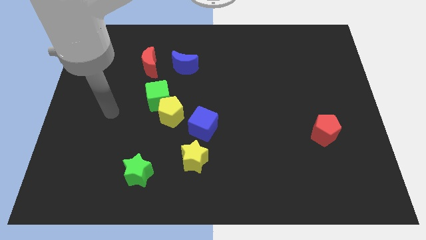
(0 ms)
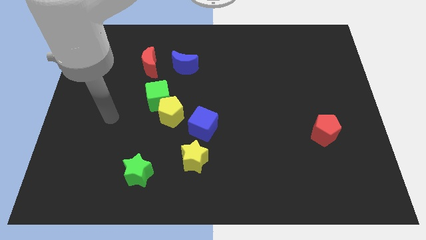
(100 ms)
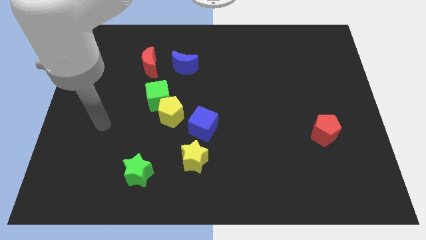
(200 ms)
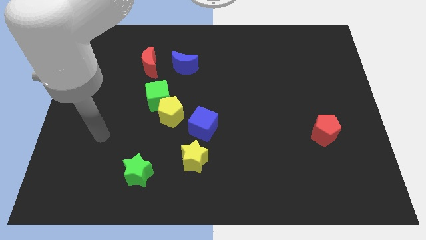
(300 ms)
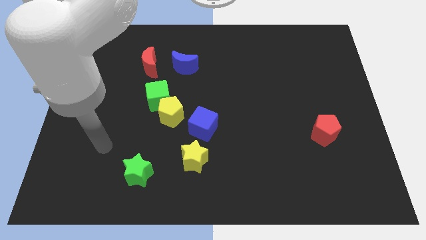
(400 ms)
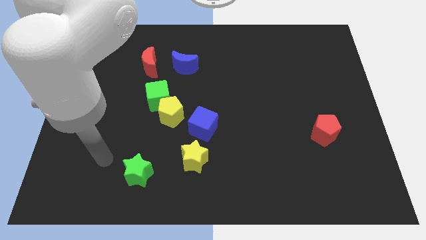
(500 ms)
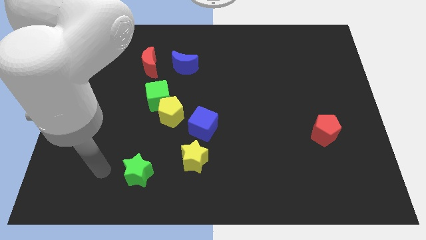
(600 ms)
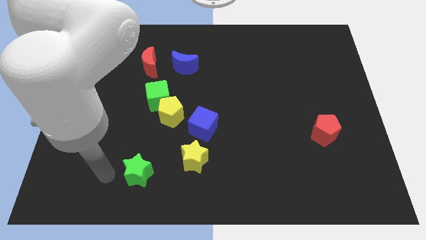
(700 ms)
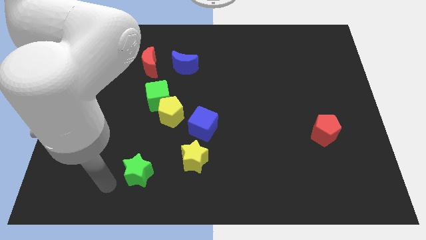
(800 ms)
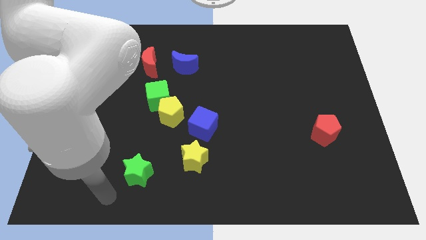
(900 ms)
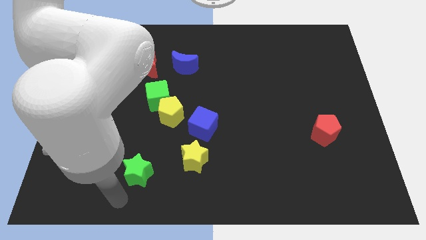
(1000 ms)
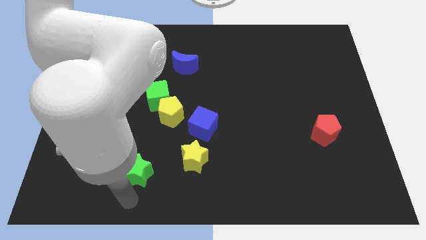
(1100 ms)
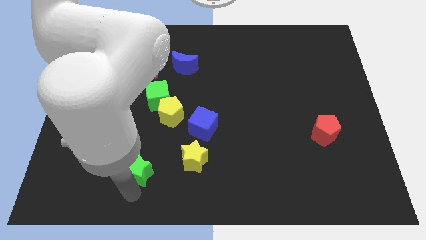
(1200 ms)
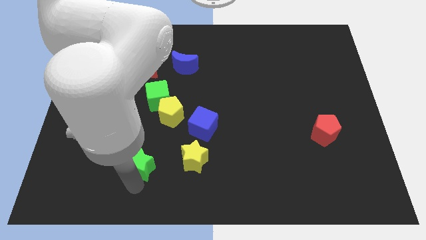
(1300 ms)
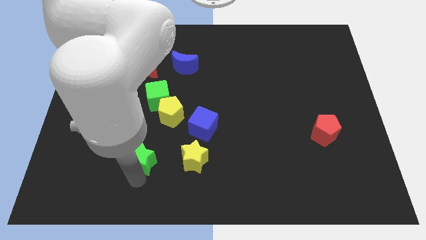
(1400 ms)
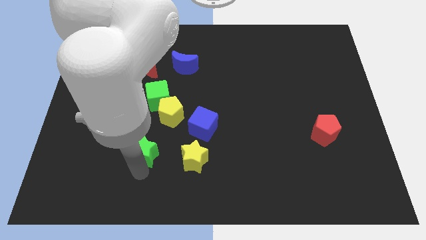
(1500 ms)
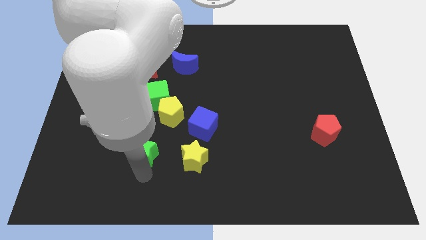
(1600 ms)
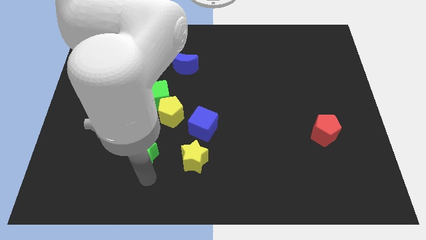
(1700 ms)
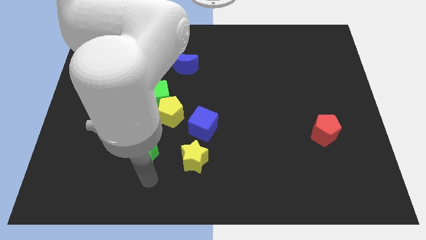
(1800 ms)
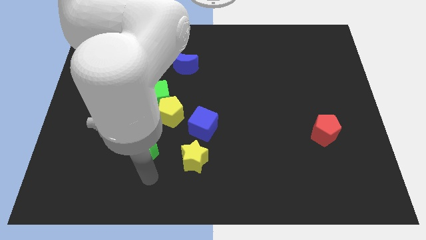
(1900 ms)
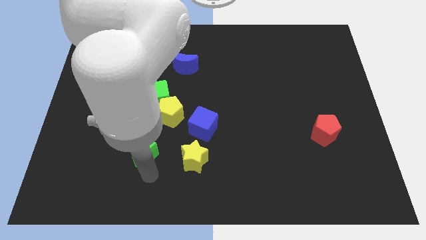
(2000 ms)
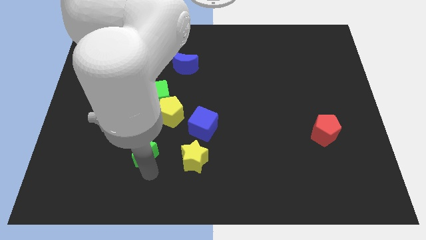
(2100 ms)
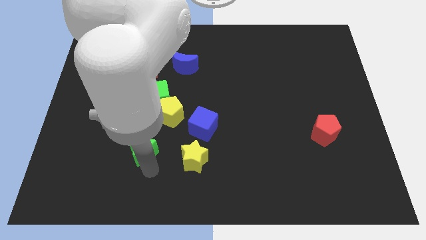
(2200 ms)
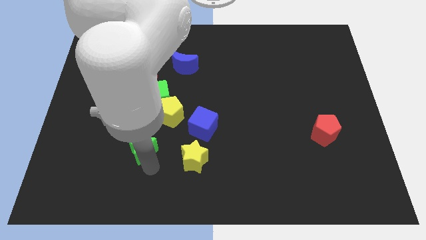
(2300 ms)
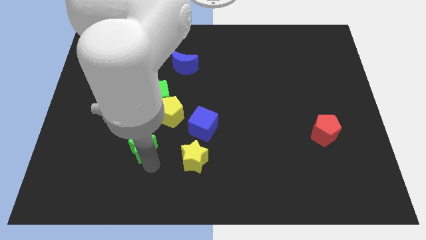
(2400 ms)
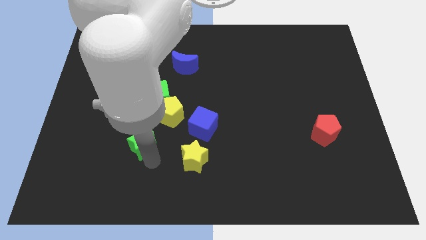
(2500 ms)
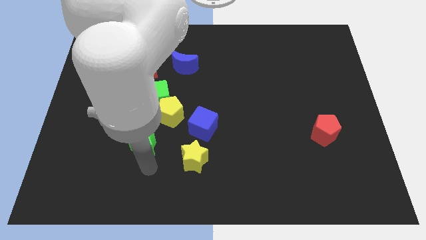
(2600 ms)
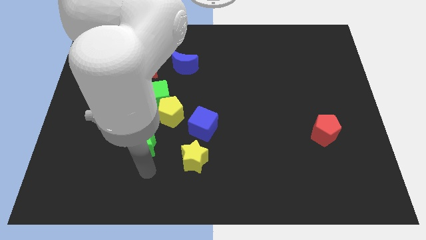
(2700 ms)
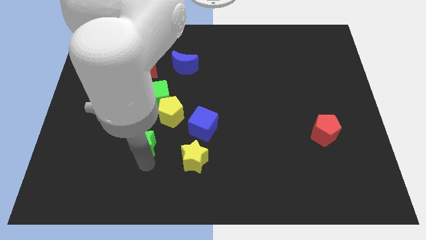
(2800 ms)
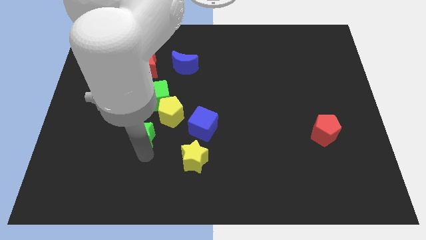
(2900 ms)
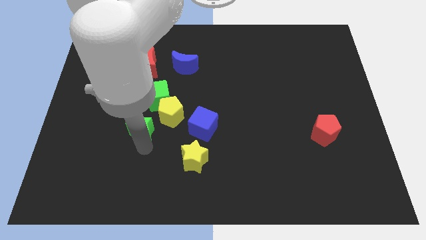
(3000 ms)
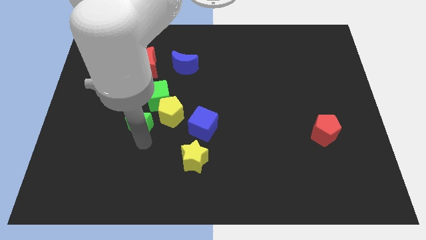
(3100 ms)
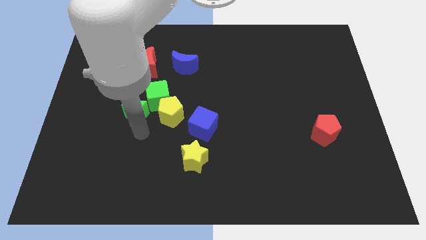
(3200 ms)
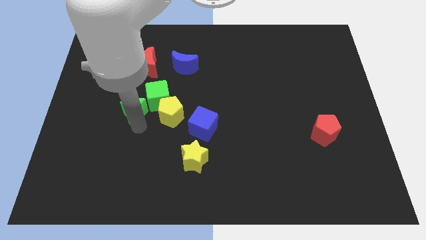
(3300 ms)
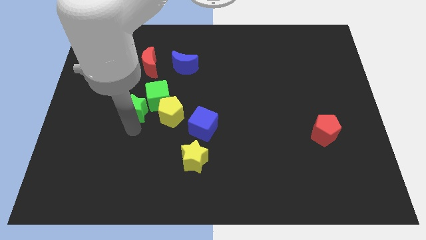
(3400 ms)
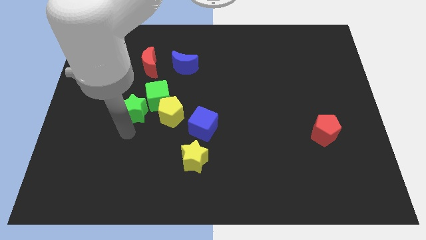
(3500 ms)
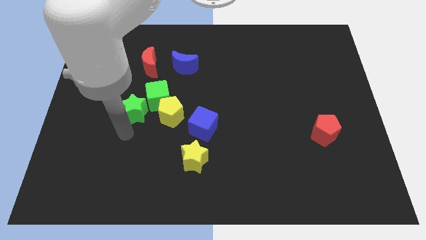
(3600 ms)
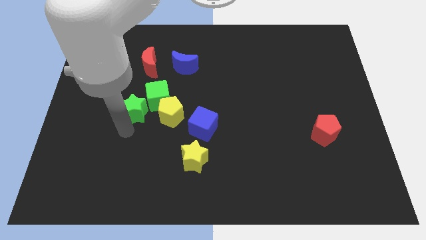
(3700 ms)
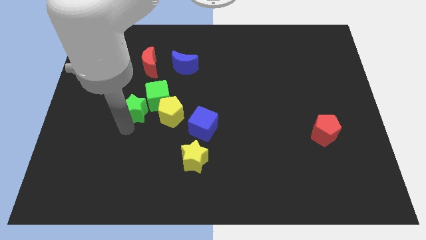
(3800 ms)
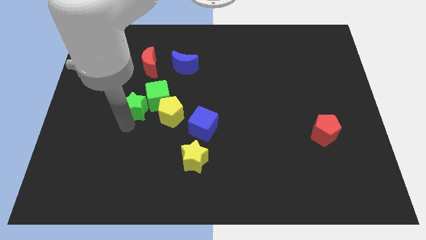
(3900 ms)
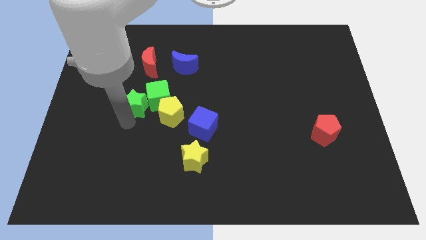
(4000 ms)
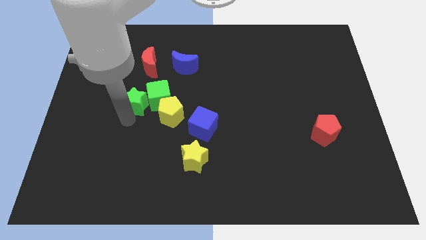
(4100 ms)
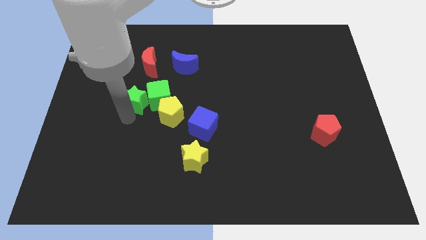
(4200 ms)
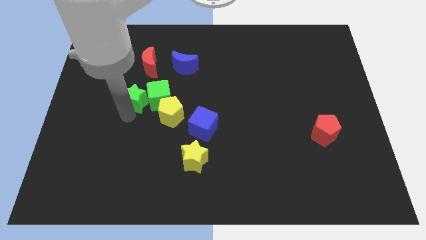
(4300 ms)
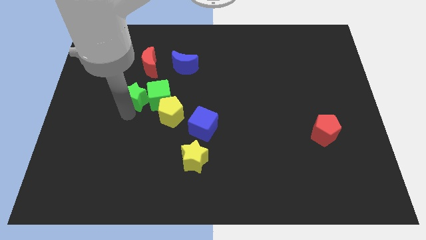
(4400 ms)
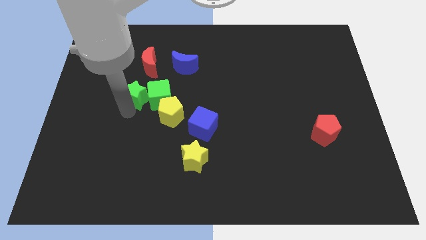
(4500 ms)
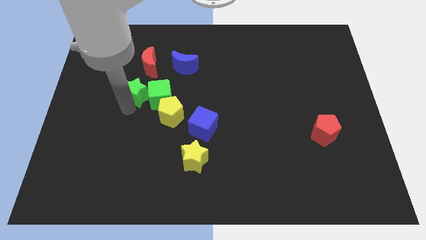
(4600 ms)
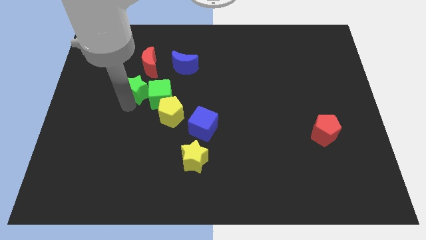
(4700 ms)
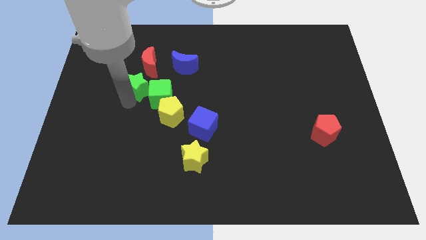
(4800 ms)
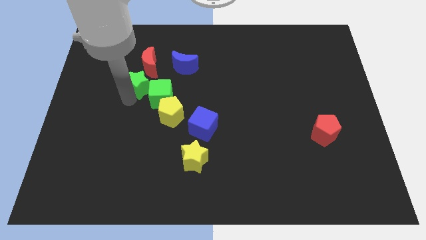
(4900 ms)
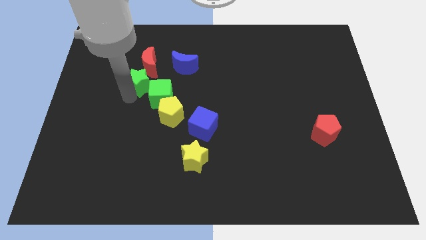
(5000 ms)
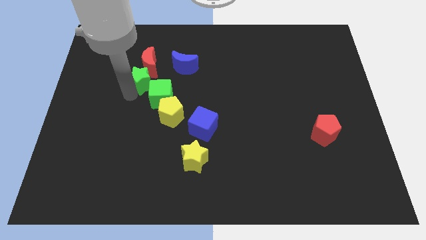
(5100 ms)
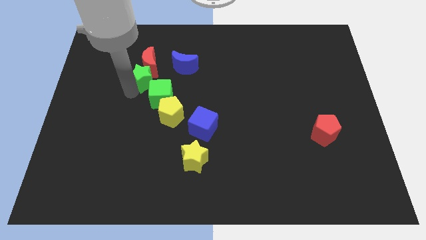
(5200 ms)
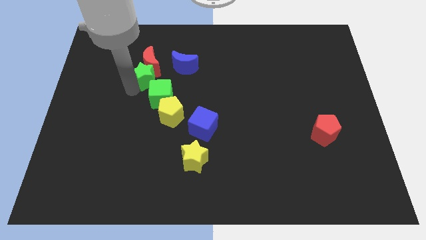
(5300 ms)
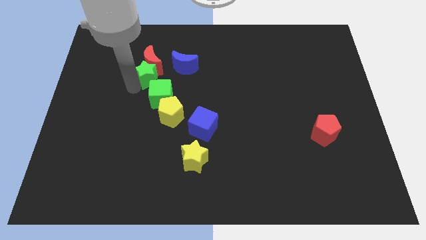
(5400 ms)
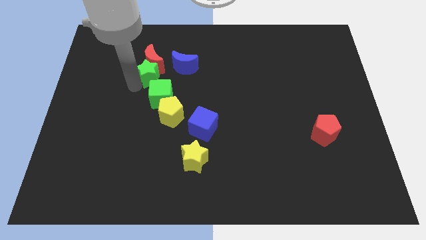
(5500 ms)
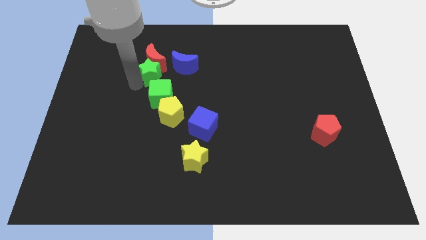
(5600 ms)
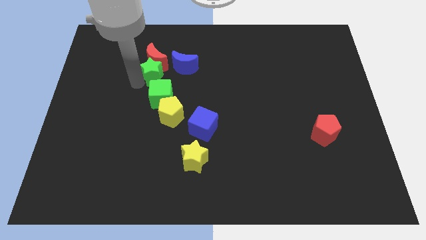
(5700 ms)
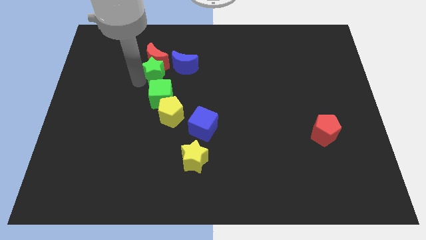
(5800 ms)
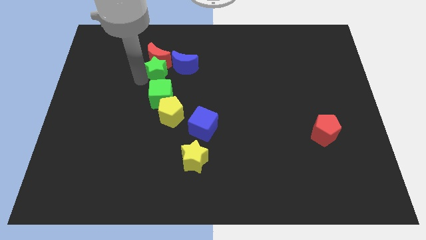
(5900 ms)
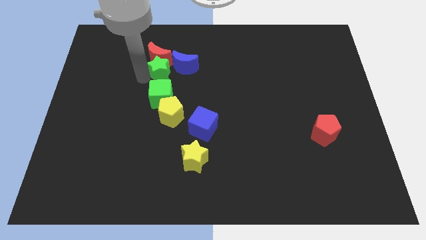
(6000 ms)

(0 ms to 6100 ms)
put the green star to the blue moon
